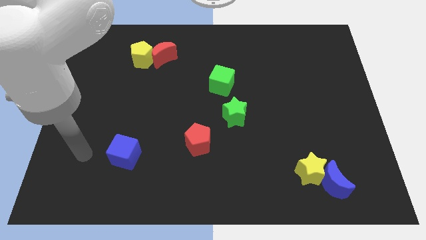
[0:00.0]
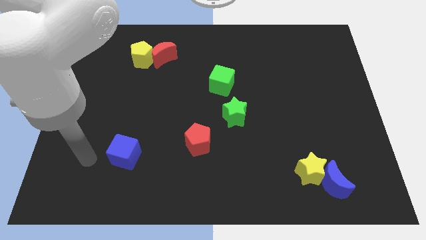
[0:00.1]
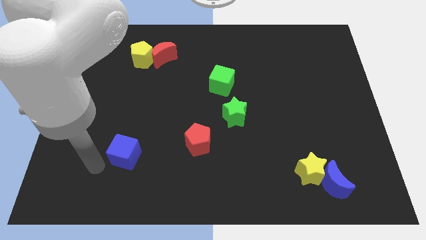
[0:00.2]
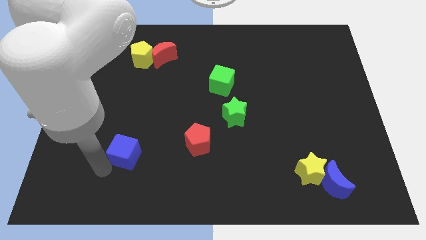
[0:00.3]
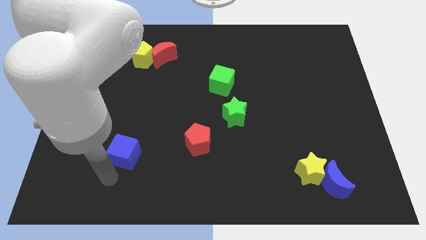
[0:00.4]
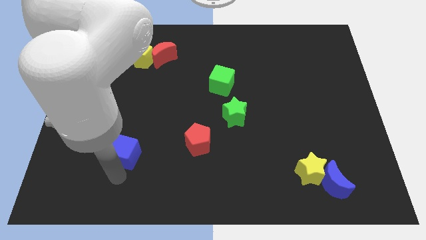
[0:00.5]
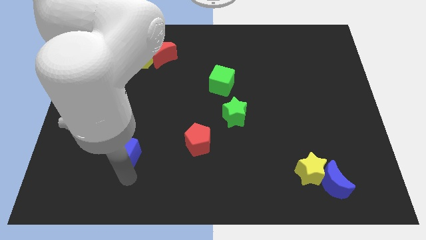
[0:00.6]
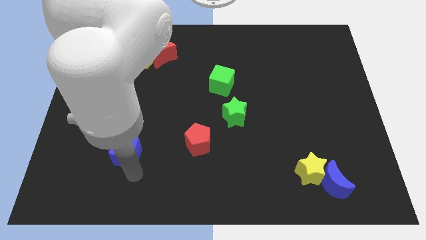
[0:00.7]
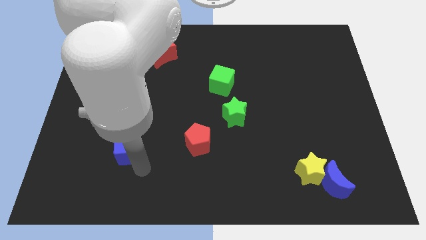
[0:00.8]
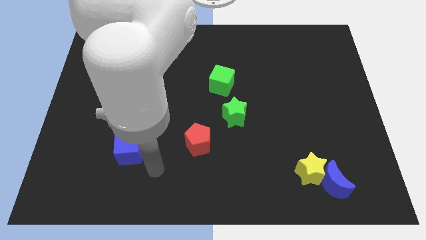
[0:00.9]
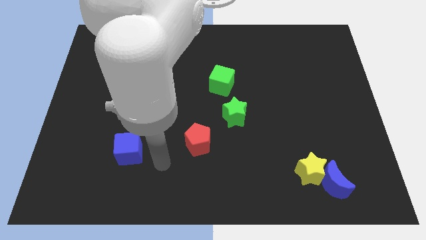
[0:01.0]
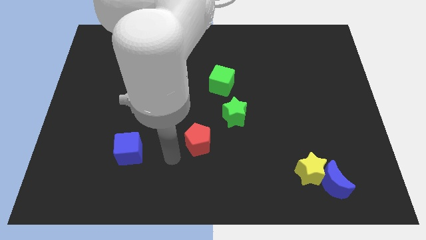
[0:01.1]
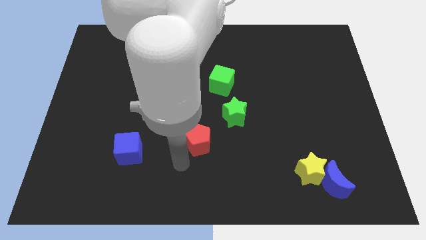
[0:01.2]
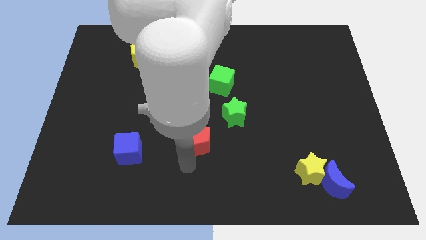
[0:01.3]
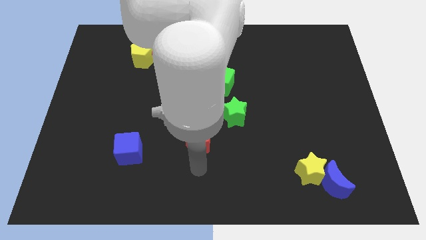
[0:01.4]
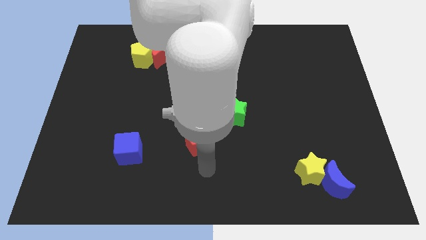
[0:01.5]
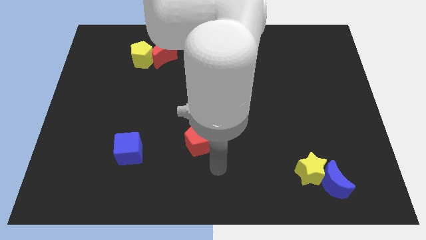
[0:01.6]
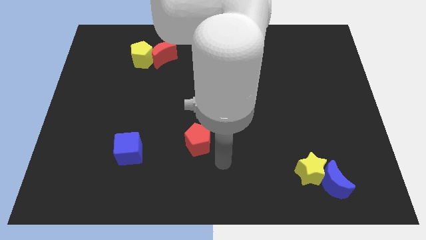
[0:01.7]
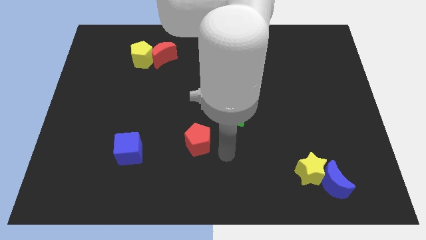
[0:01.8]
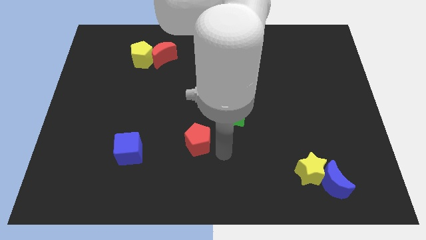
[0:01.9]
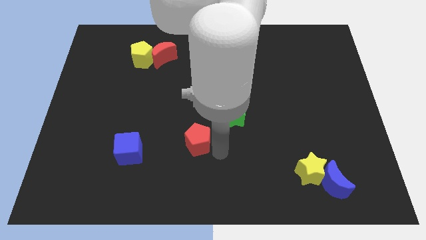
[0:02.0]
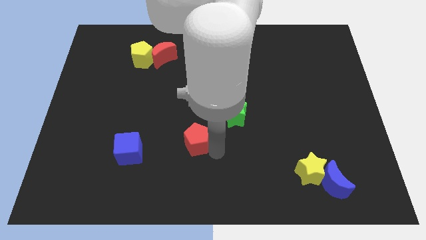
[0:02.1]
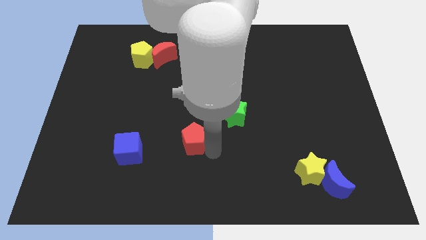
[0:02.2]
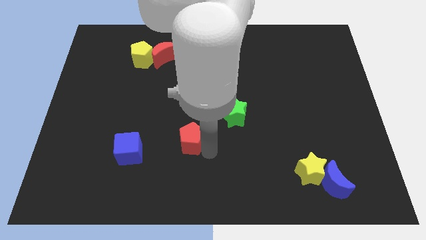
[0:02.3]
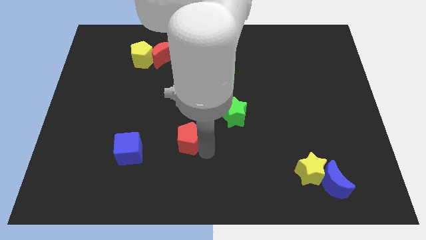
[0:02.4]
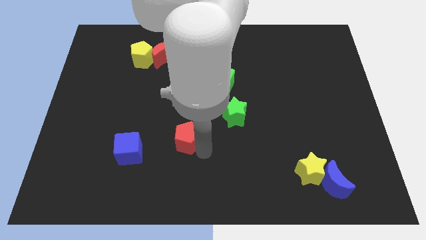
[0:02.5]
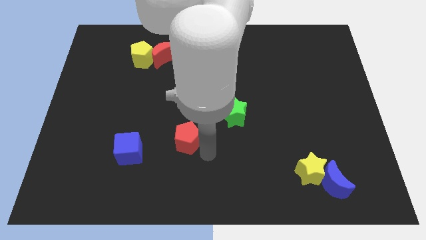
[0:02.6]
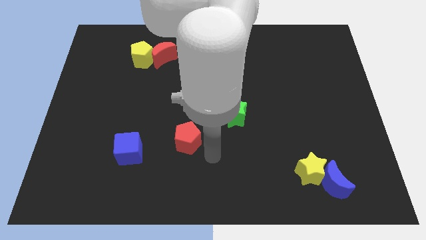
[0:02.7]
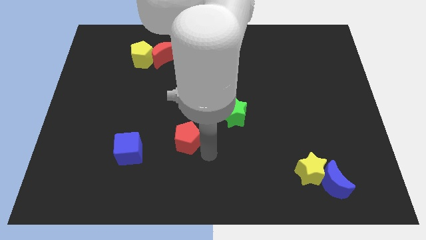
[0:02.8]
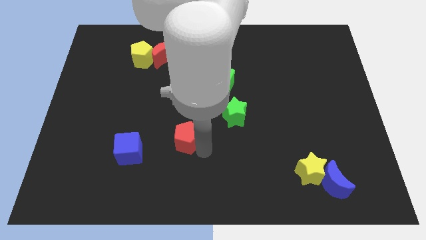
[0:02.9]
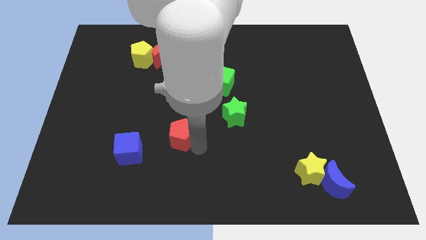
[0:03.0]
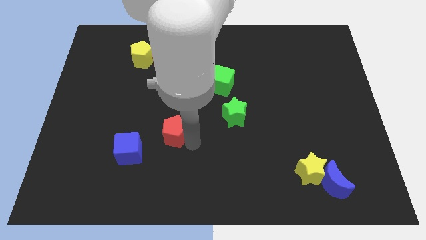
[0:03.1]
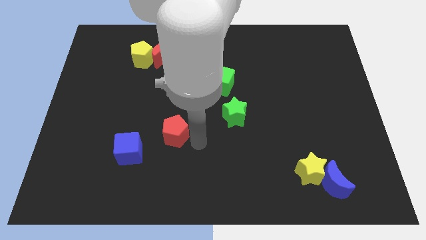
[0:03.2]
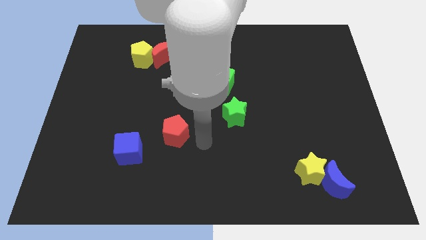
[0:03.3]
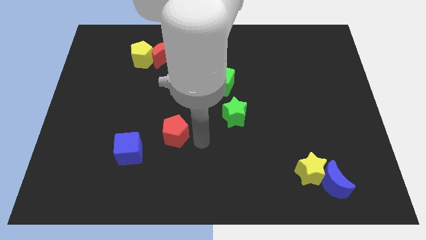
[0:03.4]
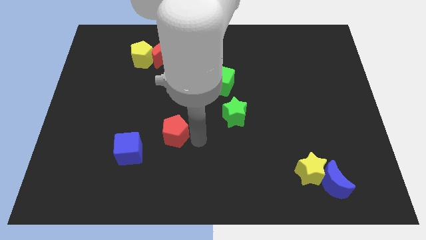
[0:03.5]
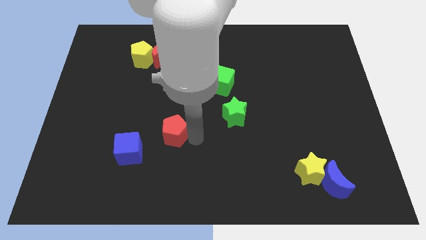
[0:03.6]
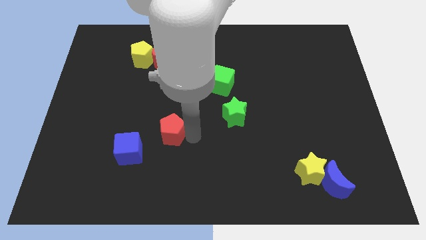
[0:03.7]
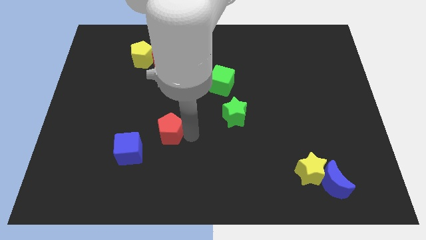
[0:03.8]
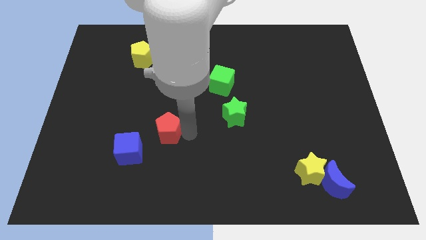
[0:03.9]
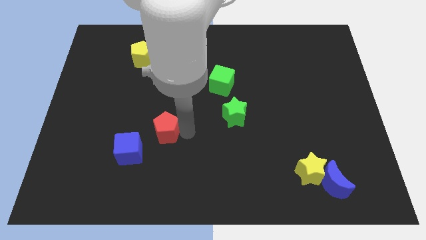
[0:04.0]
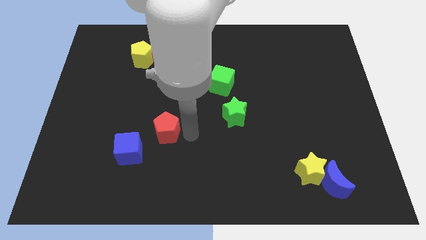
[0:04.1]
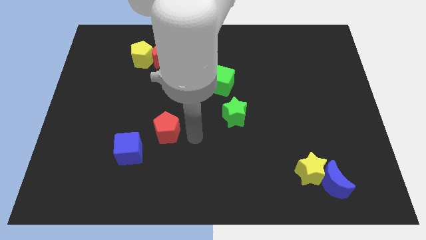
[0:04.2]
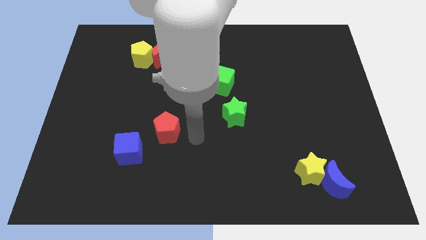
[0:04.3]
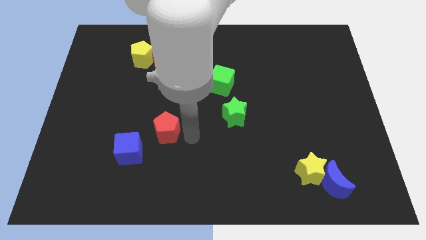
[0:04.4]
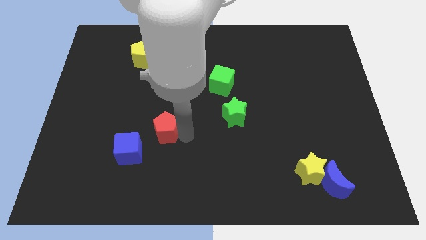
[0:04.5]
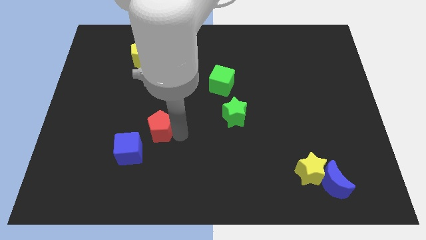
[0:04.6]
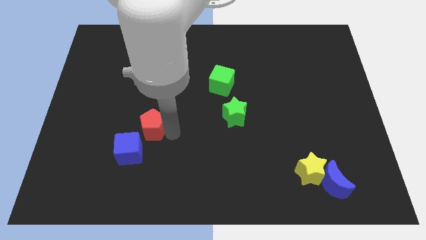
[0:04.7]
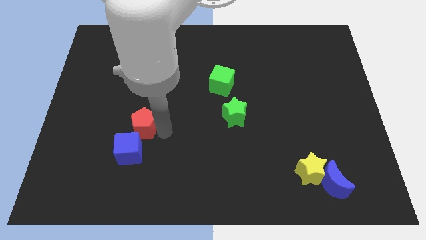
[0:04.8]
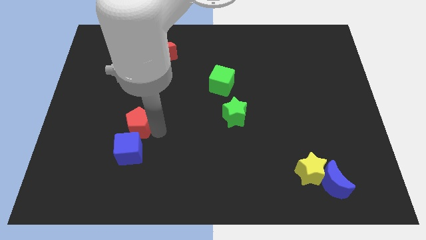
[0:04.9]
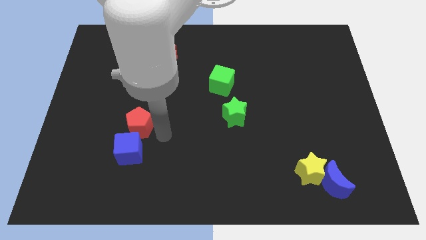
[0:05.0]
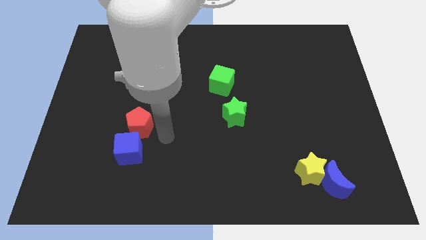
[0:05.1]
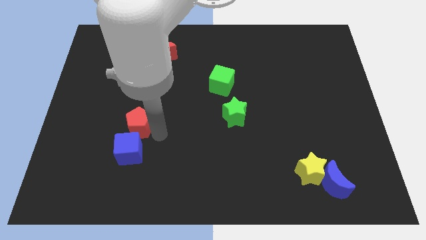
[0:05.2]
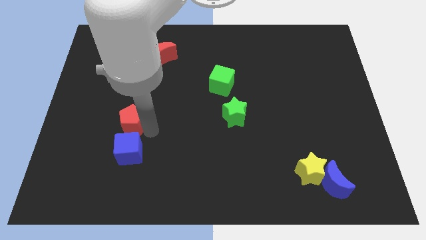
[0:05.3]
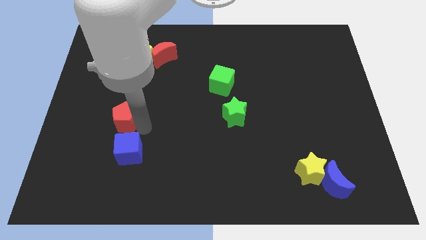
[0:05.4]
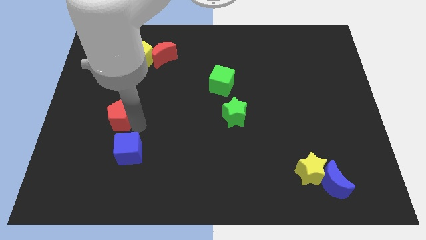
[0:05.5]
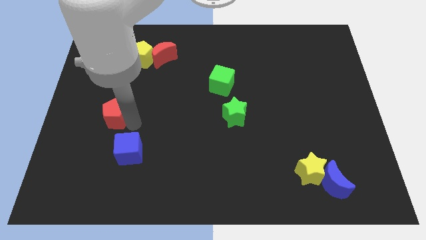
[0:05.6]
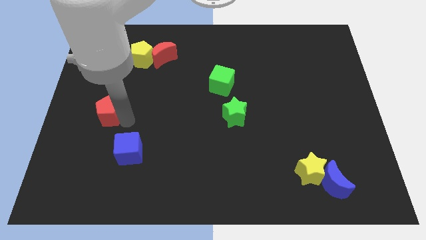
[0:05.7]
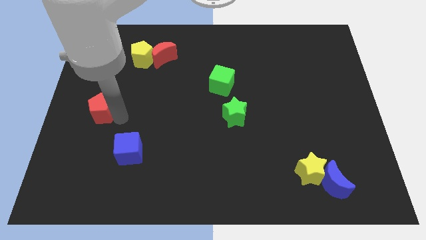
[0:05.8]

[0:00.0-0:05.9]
push the red pentagon to the left side

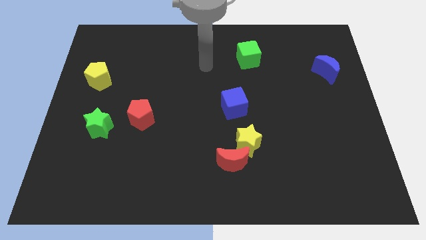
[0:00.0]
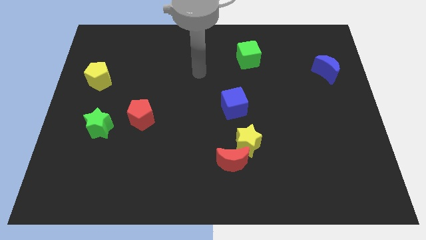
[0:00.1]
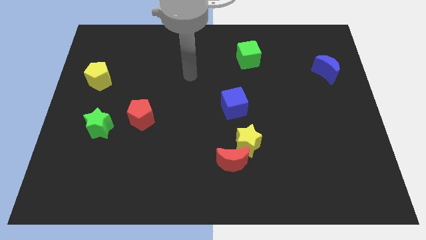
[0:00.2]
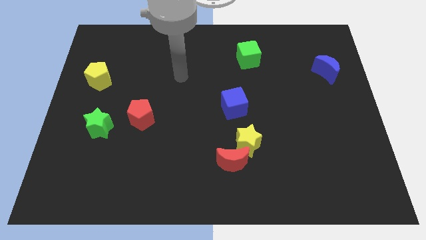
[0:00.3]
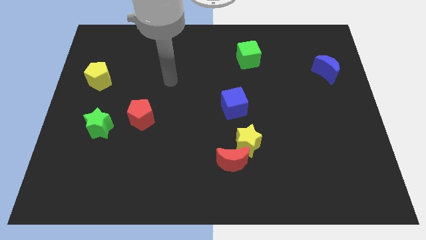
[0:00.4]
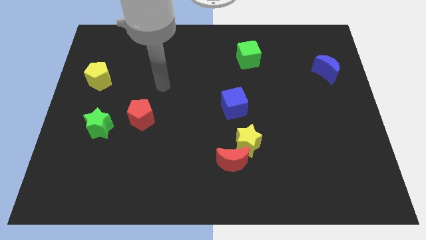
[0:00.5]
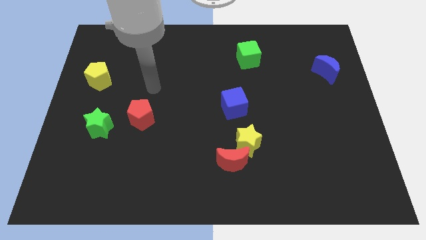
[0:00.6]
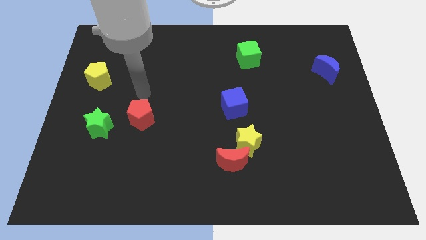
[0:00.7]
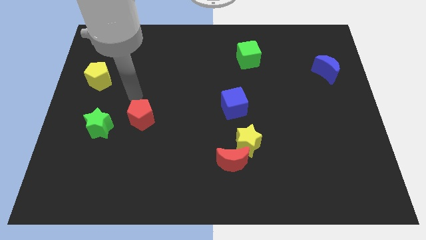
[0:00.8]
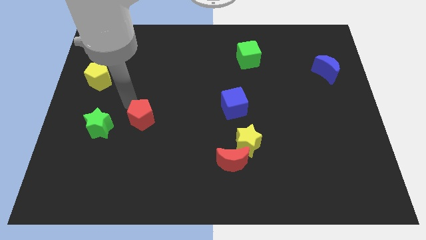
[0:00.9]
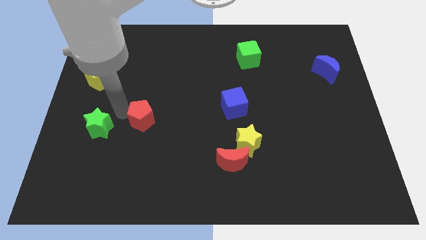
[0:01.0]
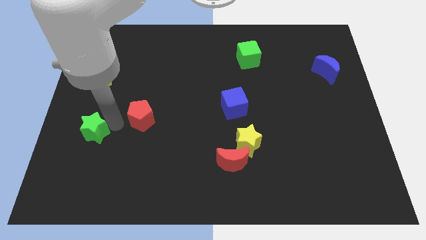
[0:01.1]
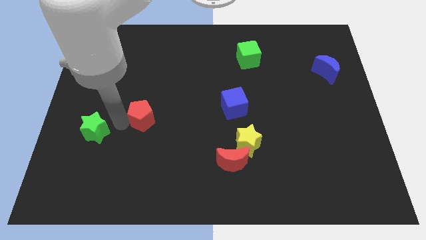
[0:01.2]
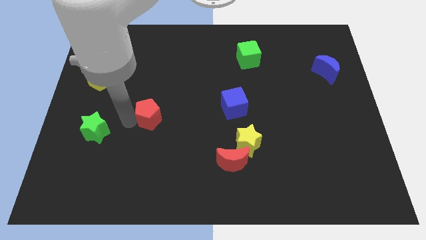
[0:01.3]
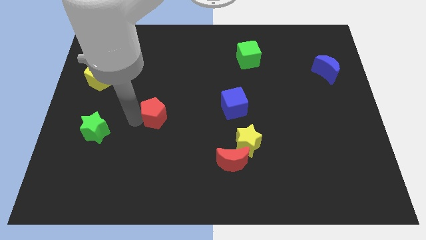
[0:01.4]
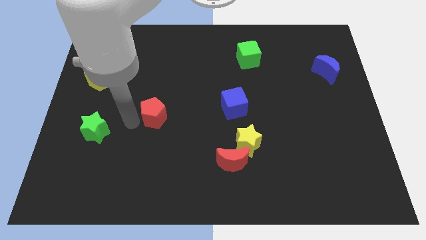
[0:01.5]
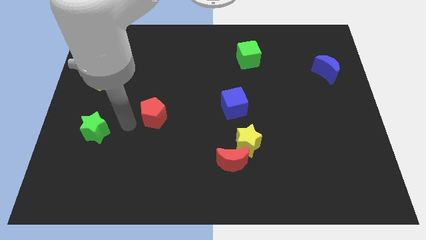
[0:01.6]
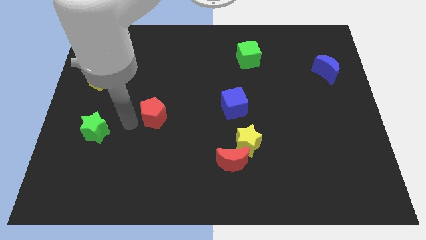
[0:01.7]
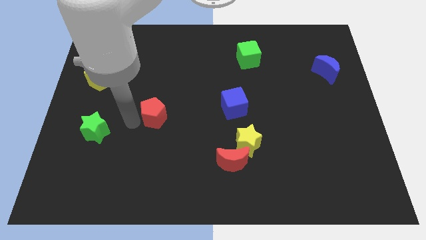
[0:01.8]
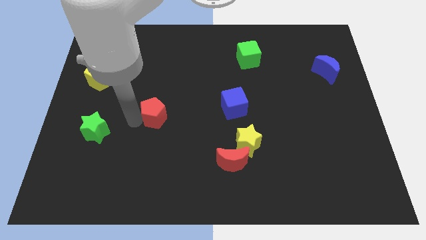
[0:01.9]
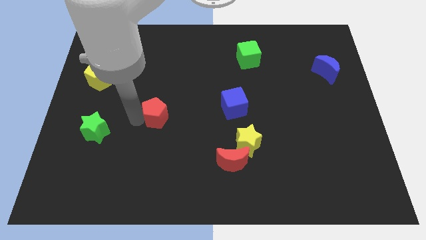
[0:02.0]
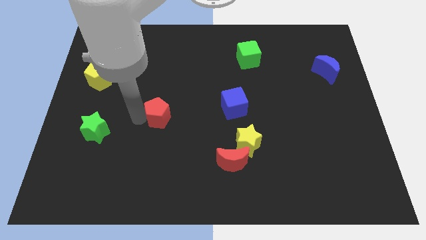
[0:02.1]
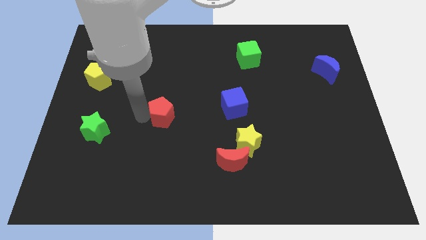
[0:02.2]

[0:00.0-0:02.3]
move the red pentagon to the center

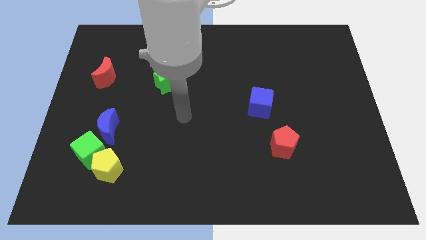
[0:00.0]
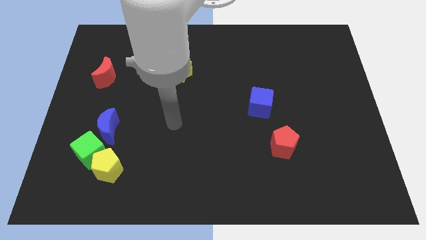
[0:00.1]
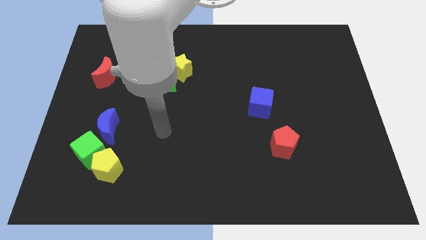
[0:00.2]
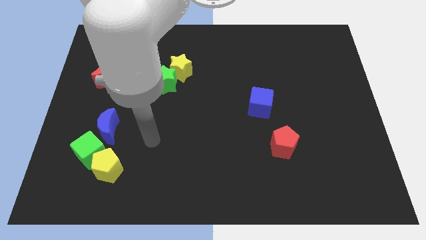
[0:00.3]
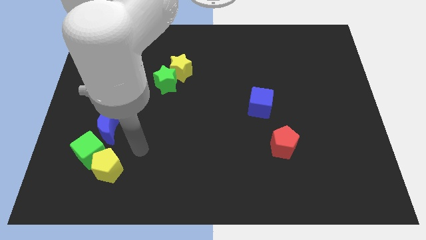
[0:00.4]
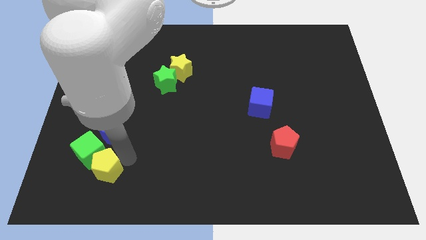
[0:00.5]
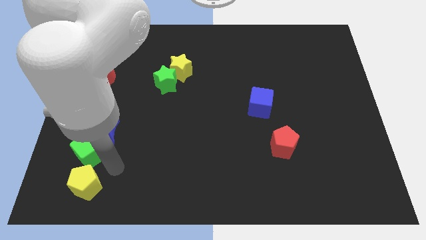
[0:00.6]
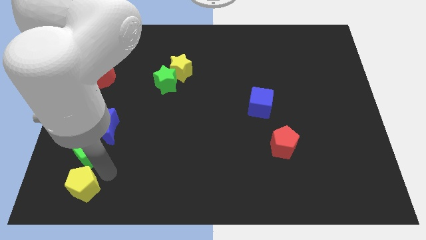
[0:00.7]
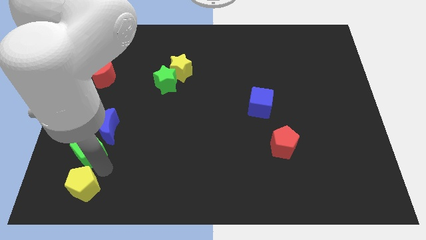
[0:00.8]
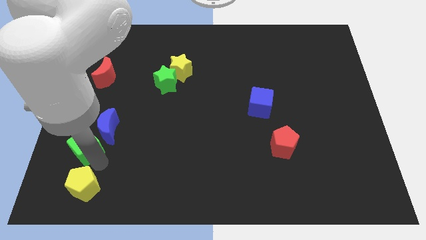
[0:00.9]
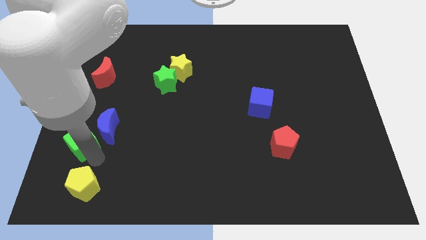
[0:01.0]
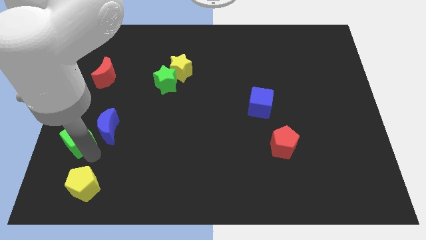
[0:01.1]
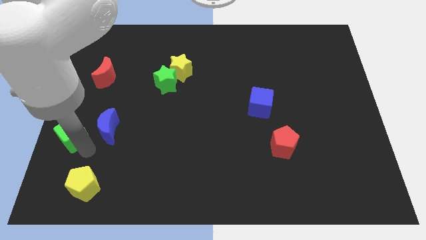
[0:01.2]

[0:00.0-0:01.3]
put the green cube to the left side
